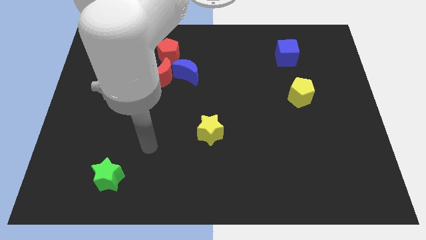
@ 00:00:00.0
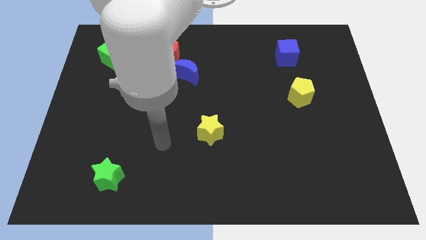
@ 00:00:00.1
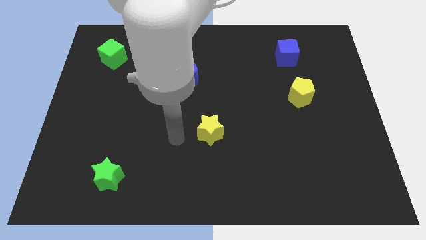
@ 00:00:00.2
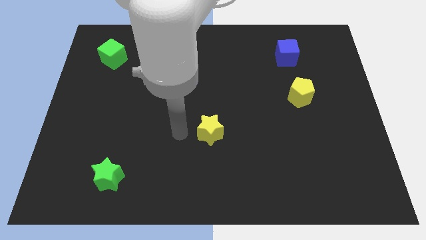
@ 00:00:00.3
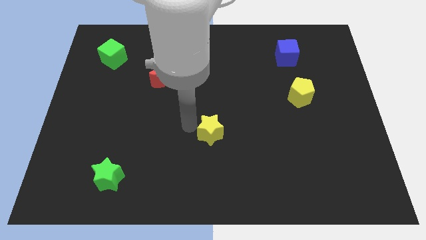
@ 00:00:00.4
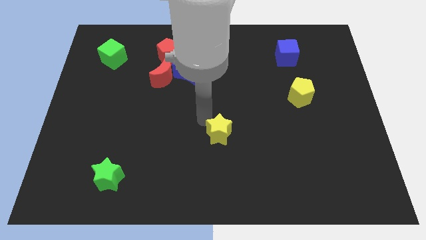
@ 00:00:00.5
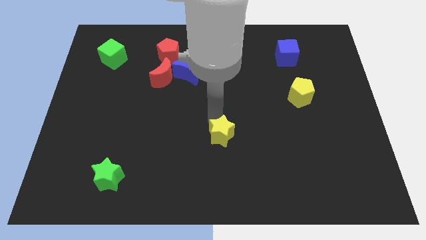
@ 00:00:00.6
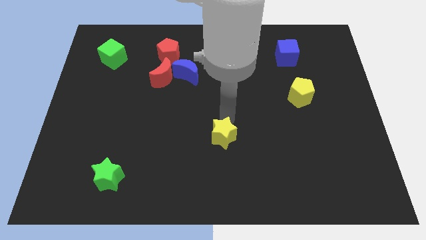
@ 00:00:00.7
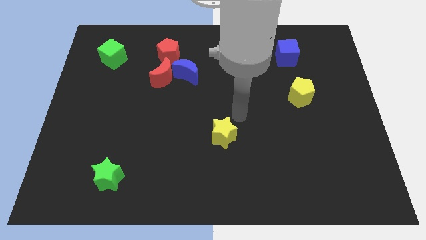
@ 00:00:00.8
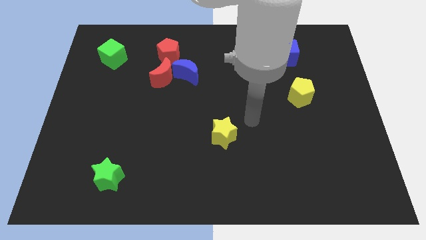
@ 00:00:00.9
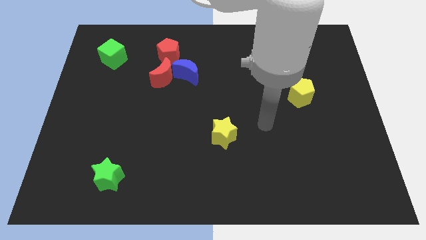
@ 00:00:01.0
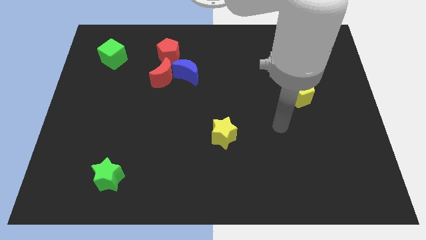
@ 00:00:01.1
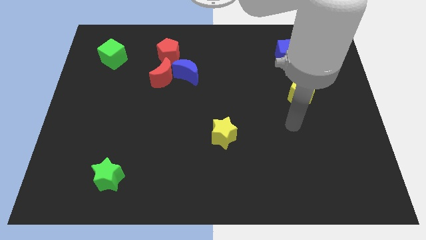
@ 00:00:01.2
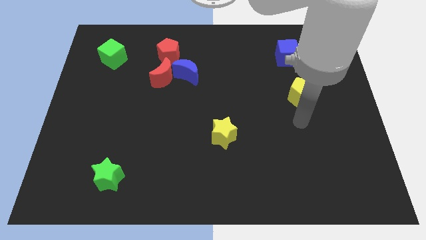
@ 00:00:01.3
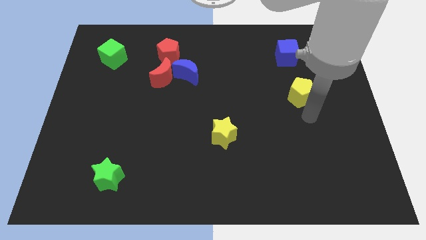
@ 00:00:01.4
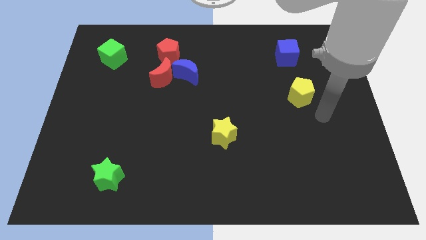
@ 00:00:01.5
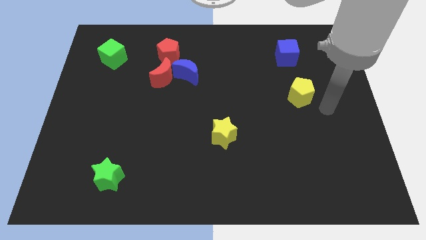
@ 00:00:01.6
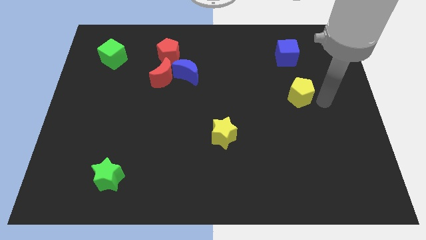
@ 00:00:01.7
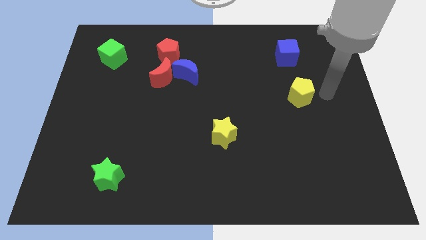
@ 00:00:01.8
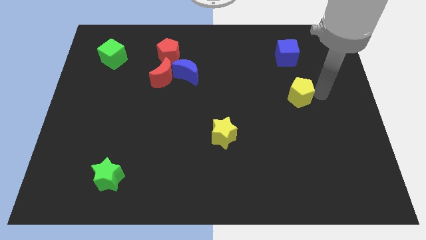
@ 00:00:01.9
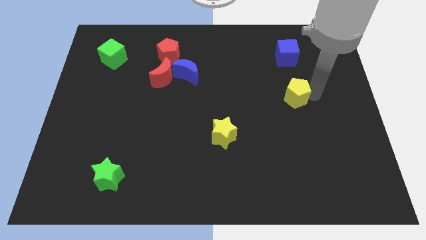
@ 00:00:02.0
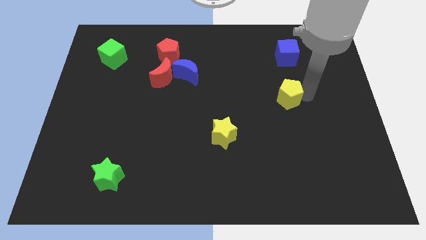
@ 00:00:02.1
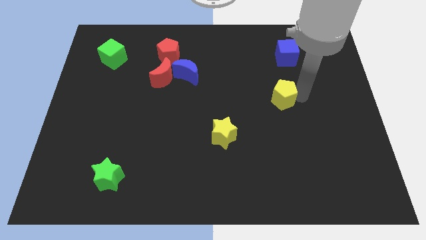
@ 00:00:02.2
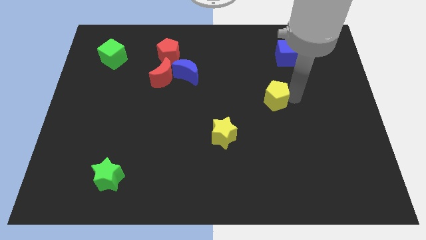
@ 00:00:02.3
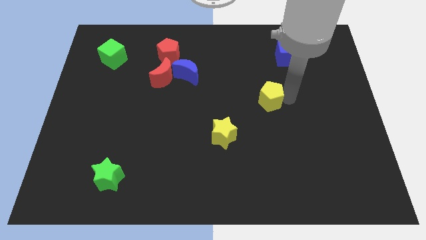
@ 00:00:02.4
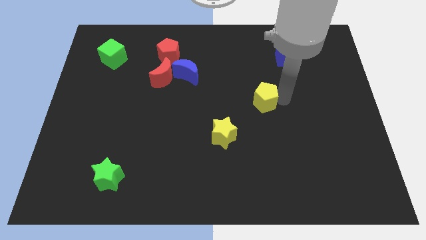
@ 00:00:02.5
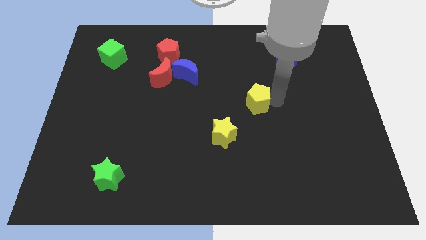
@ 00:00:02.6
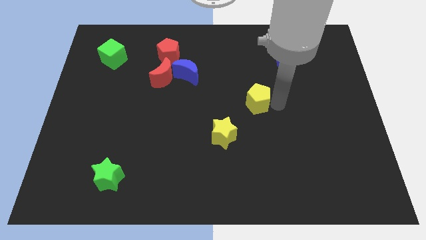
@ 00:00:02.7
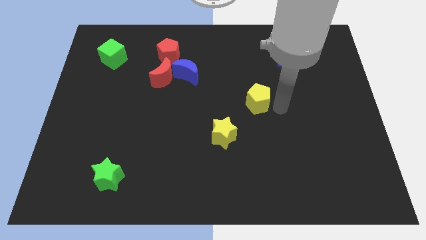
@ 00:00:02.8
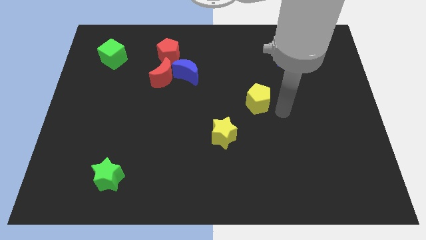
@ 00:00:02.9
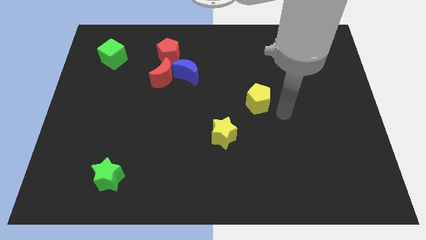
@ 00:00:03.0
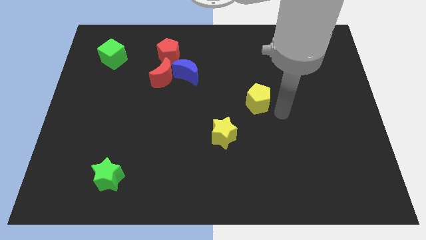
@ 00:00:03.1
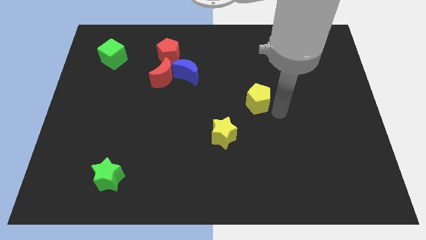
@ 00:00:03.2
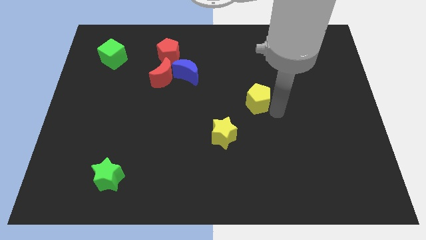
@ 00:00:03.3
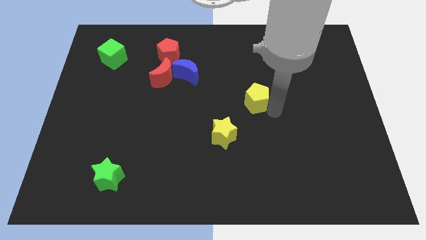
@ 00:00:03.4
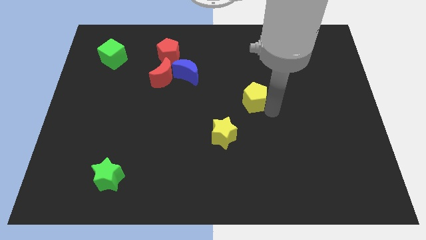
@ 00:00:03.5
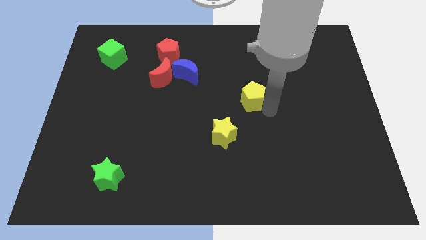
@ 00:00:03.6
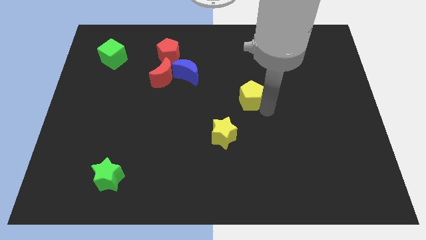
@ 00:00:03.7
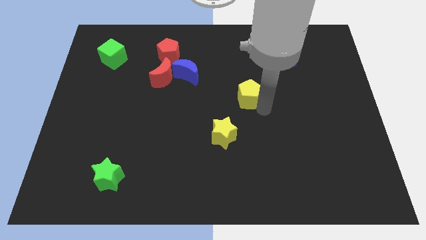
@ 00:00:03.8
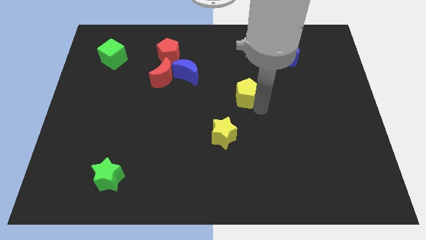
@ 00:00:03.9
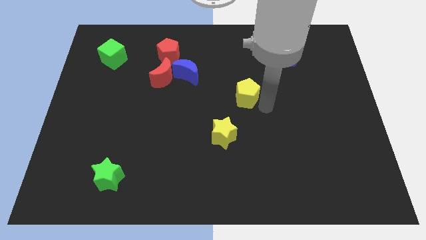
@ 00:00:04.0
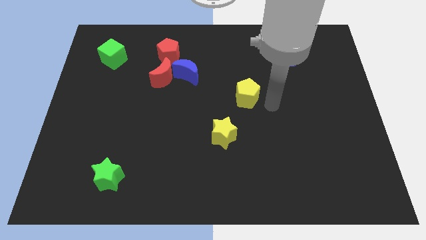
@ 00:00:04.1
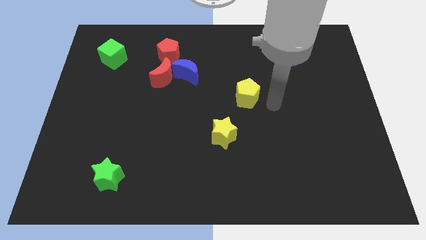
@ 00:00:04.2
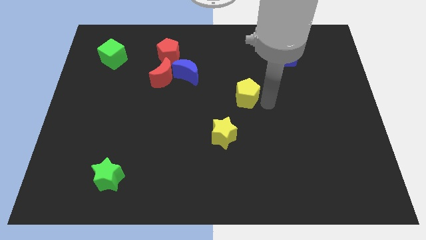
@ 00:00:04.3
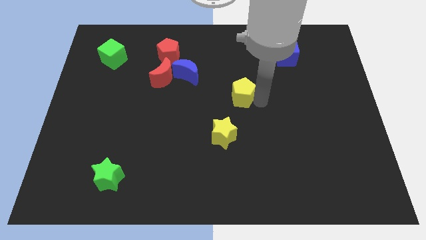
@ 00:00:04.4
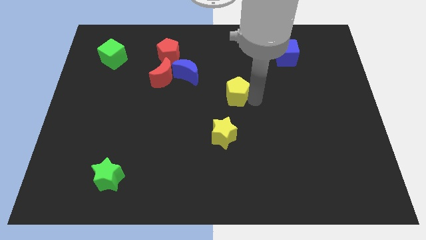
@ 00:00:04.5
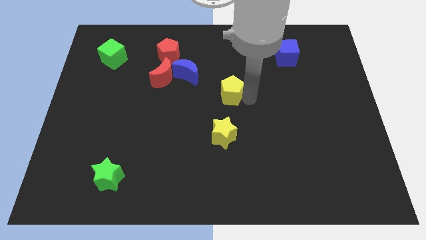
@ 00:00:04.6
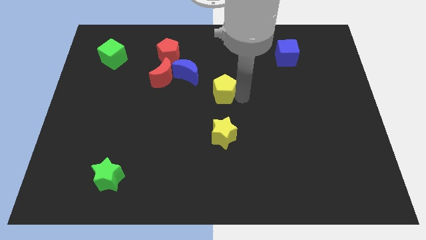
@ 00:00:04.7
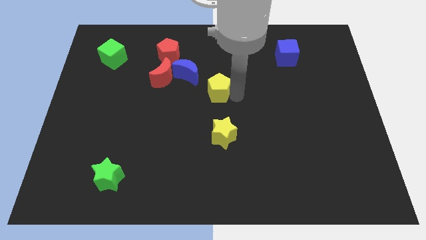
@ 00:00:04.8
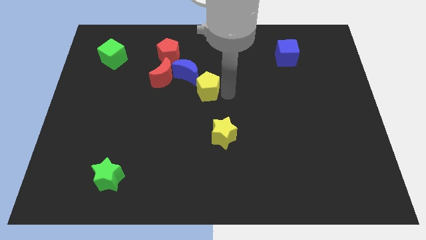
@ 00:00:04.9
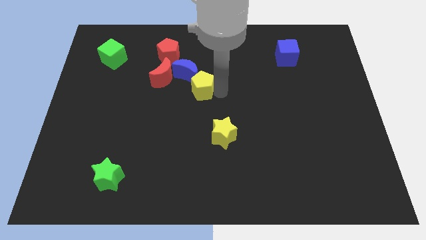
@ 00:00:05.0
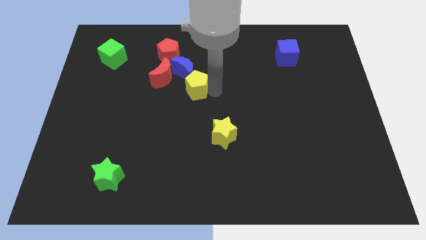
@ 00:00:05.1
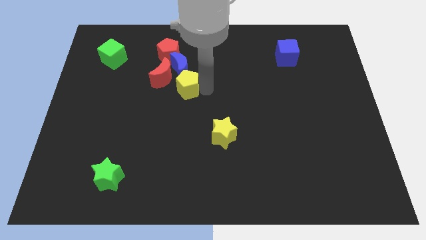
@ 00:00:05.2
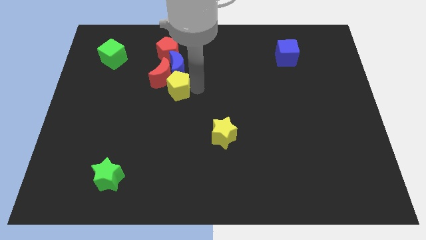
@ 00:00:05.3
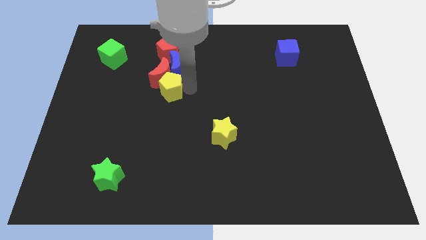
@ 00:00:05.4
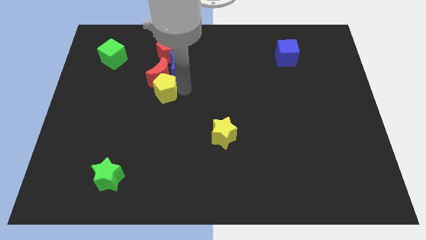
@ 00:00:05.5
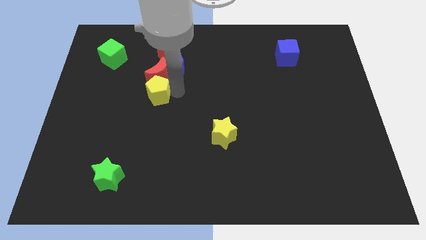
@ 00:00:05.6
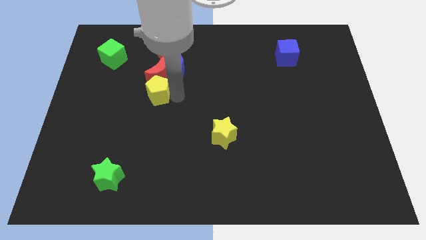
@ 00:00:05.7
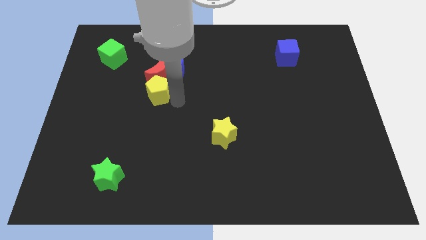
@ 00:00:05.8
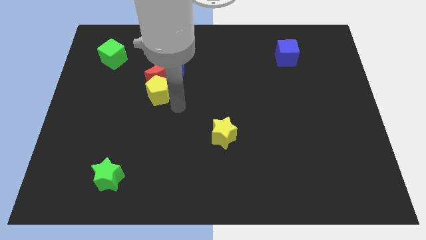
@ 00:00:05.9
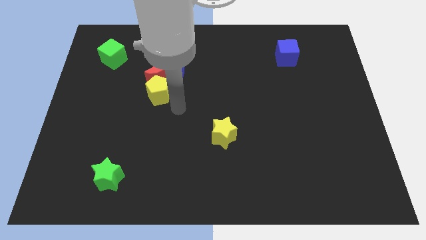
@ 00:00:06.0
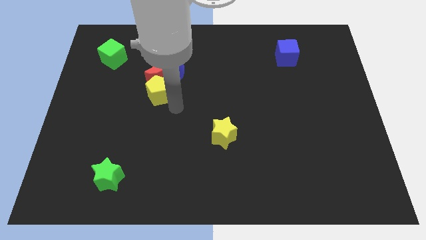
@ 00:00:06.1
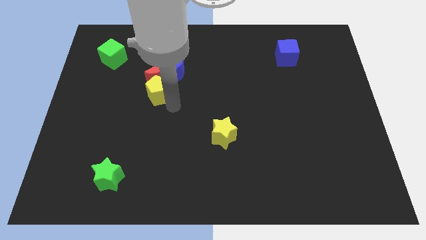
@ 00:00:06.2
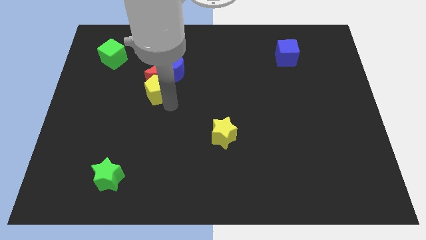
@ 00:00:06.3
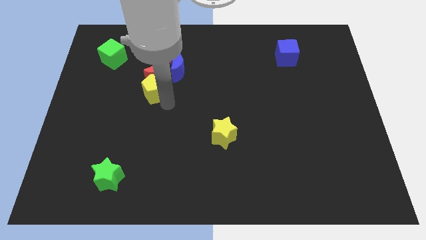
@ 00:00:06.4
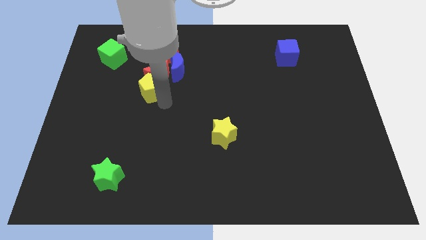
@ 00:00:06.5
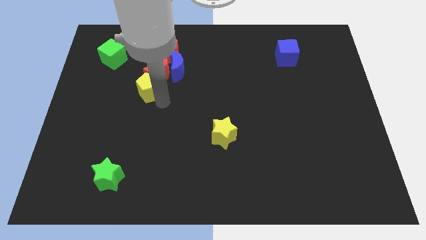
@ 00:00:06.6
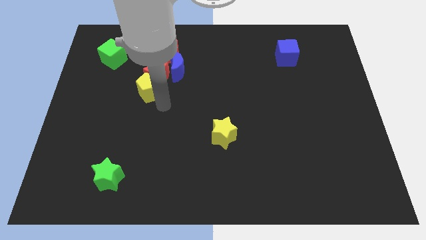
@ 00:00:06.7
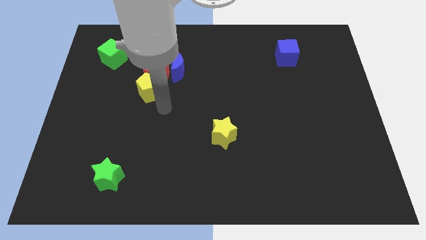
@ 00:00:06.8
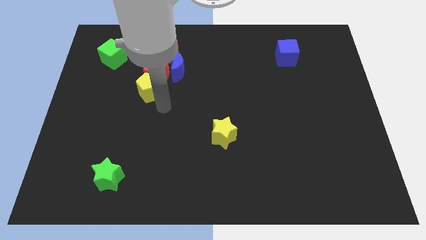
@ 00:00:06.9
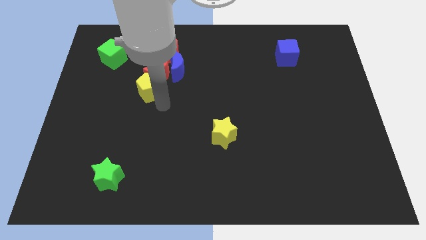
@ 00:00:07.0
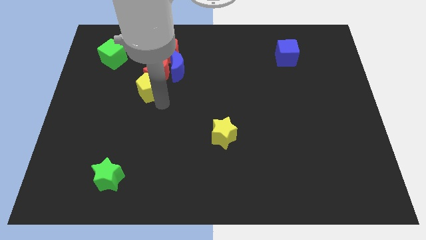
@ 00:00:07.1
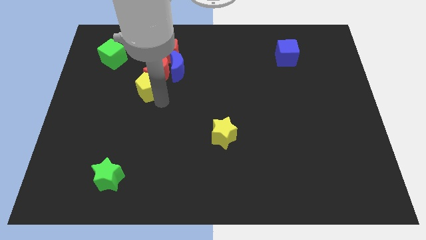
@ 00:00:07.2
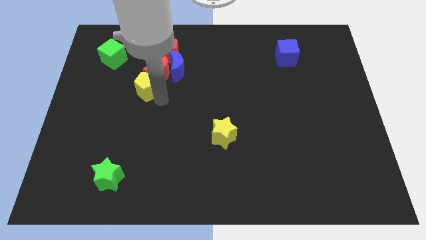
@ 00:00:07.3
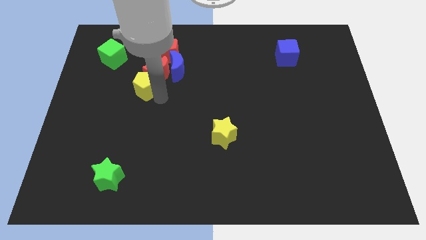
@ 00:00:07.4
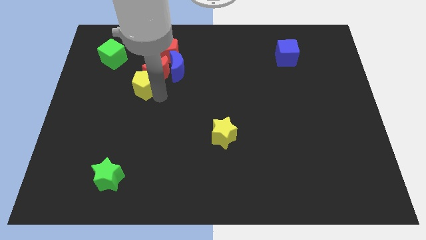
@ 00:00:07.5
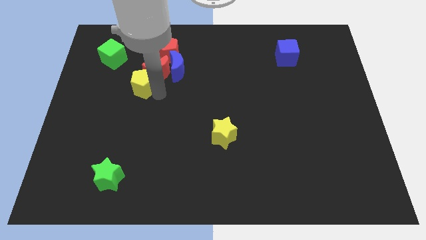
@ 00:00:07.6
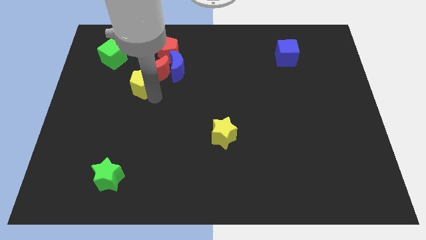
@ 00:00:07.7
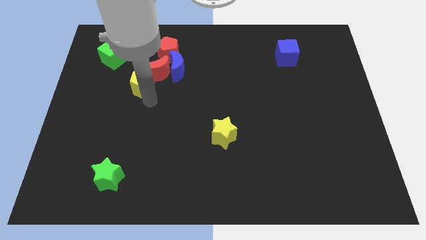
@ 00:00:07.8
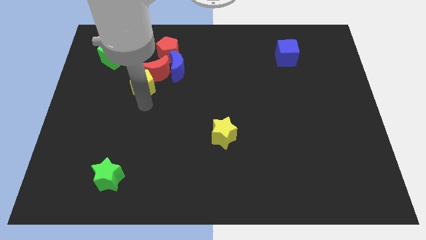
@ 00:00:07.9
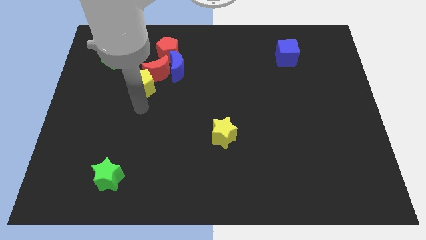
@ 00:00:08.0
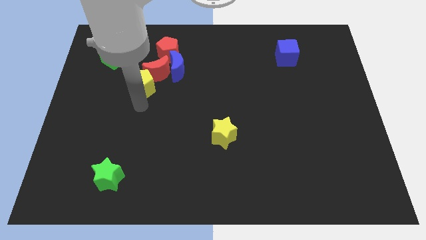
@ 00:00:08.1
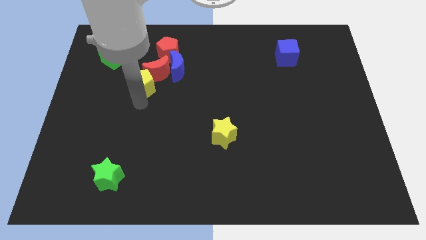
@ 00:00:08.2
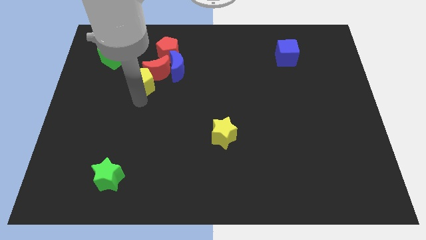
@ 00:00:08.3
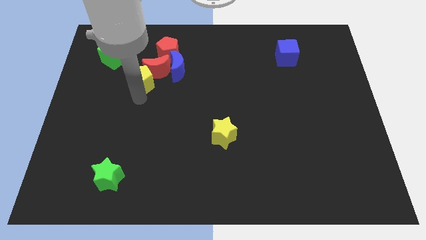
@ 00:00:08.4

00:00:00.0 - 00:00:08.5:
move the yellow pentagon diagonally down and to the left of the red pentagon
